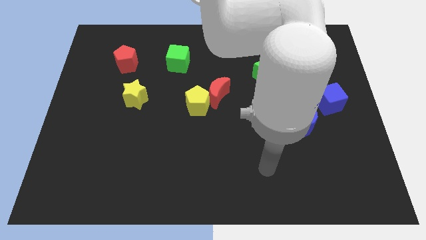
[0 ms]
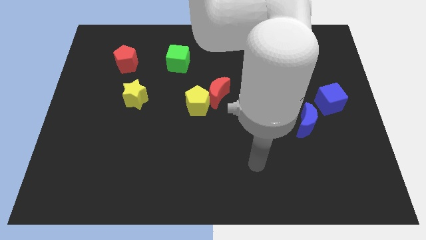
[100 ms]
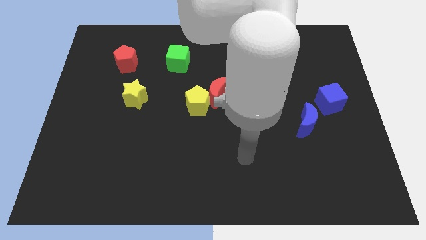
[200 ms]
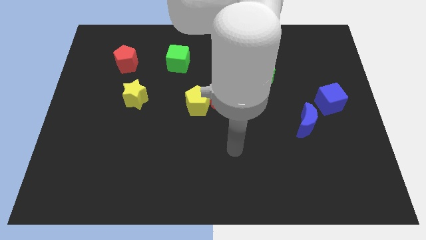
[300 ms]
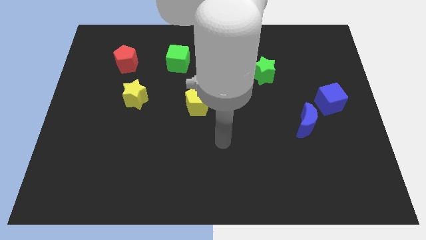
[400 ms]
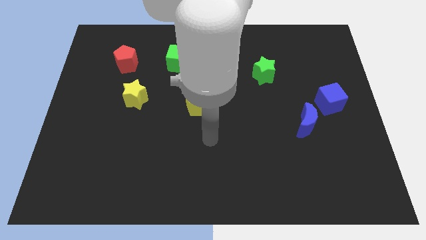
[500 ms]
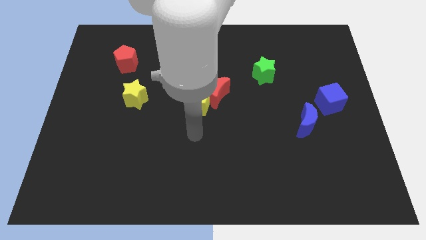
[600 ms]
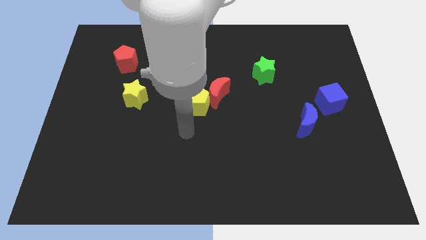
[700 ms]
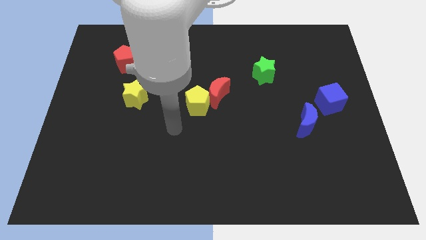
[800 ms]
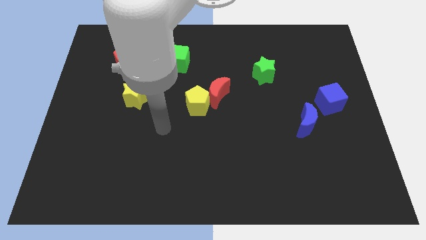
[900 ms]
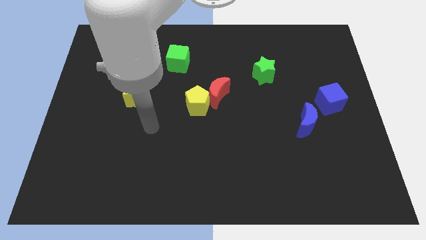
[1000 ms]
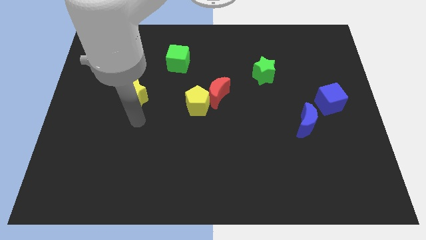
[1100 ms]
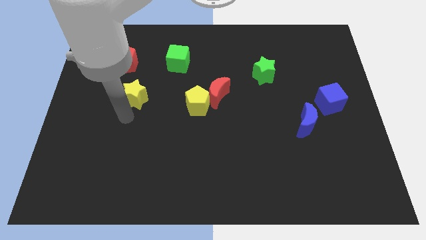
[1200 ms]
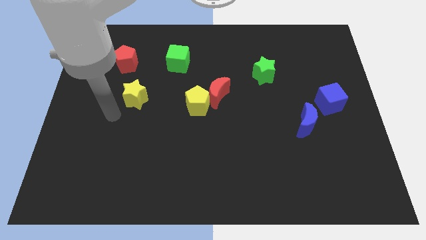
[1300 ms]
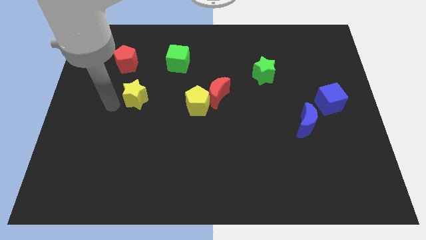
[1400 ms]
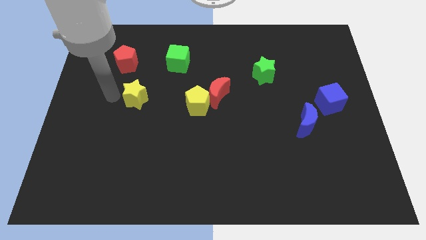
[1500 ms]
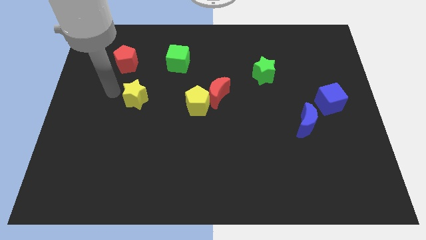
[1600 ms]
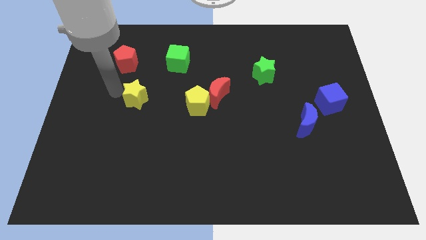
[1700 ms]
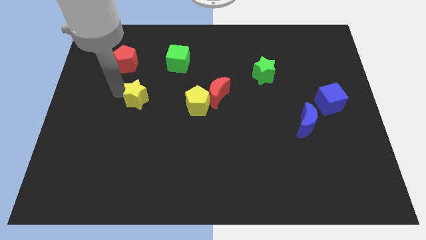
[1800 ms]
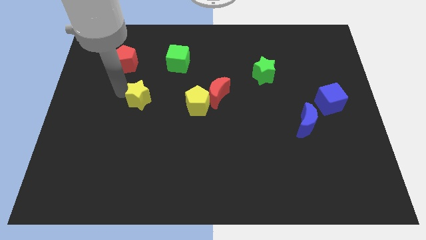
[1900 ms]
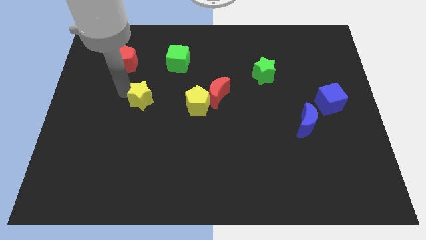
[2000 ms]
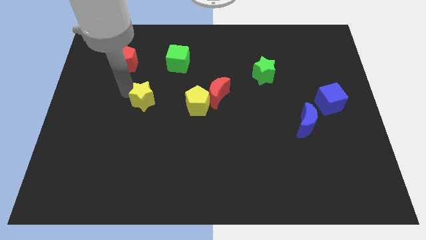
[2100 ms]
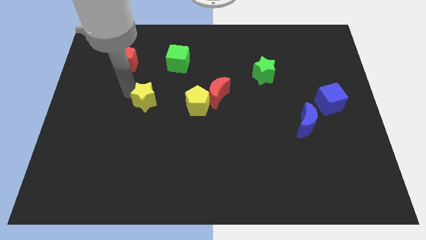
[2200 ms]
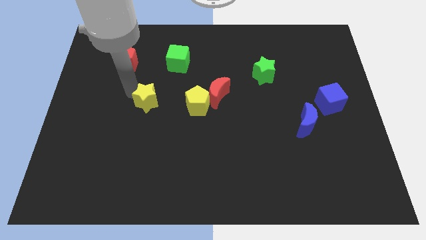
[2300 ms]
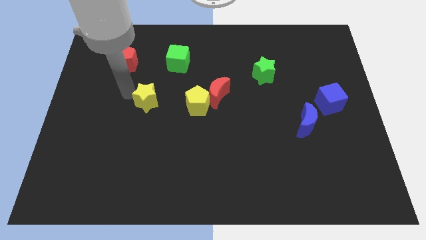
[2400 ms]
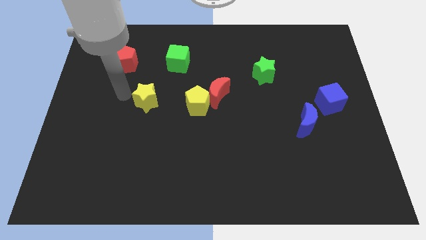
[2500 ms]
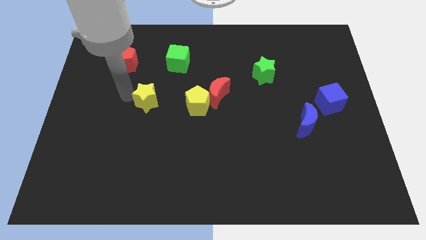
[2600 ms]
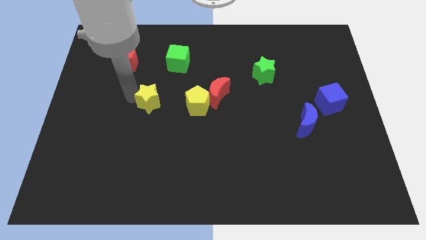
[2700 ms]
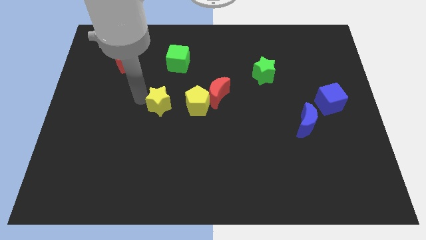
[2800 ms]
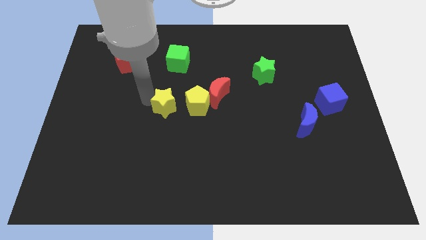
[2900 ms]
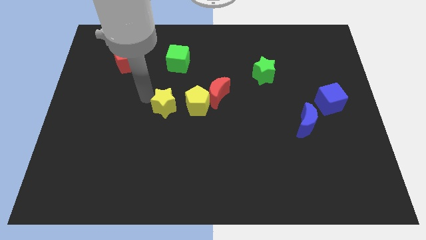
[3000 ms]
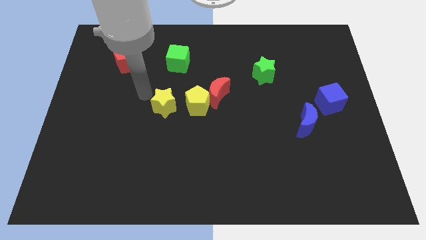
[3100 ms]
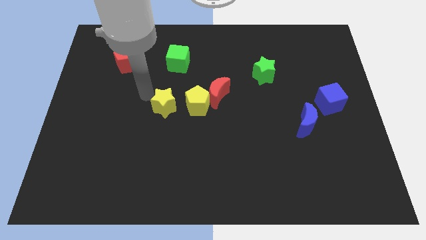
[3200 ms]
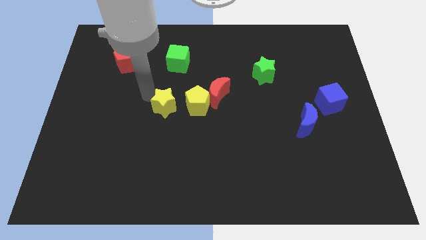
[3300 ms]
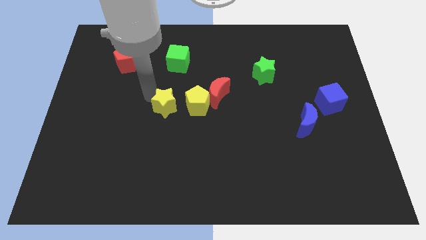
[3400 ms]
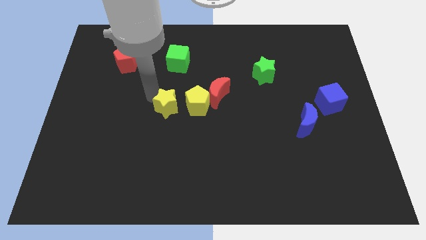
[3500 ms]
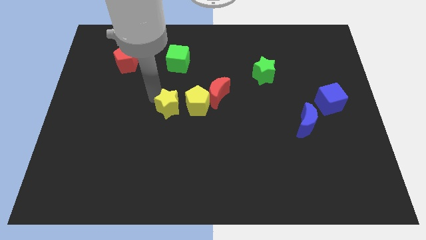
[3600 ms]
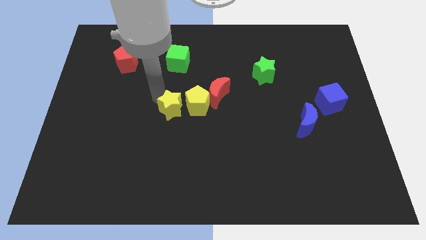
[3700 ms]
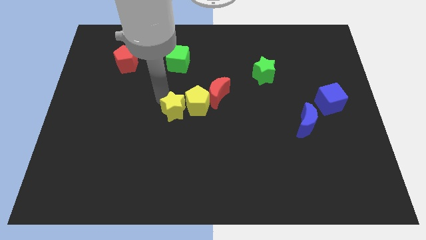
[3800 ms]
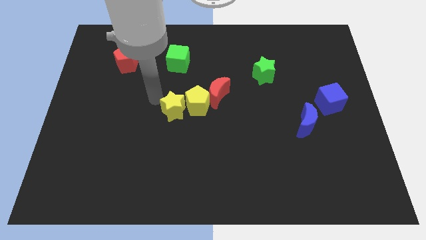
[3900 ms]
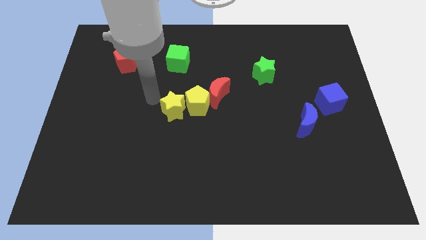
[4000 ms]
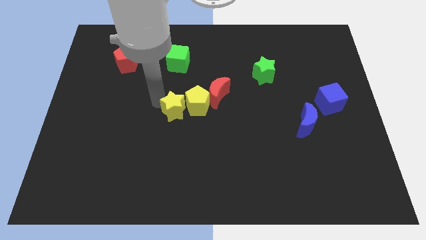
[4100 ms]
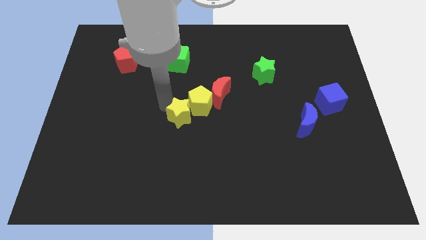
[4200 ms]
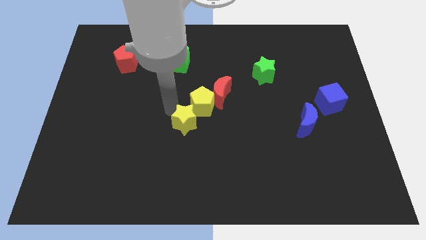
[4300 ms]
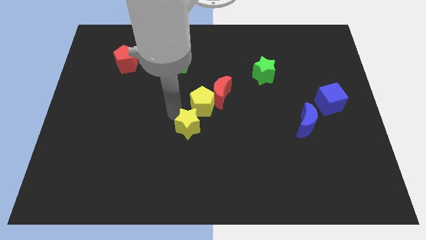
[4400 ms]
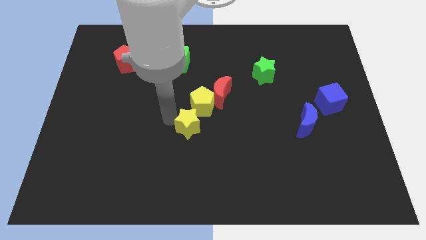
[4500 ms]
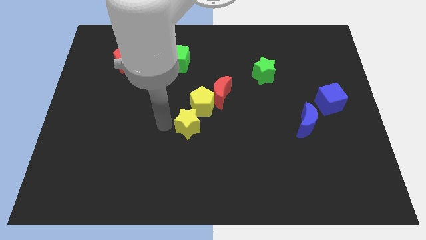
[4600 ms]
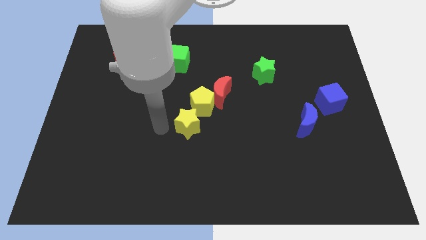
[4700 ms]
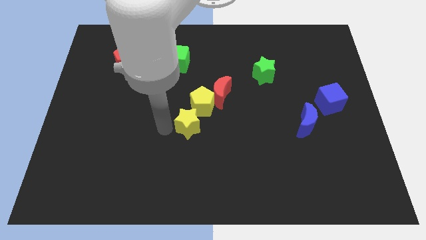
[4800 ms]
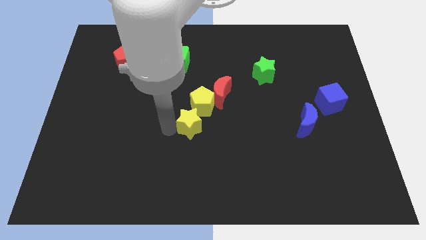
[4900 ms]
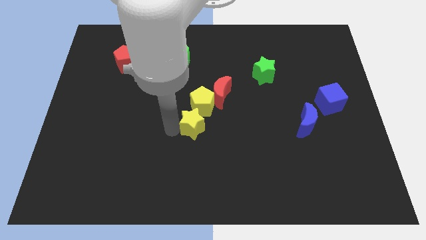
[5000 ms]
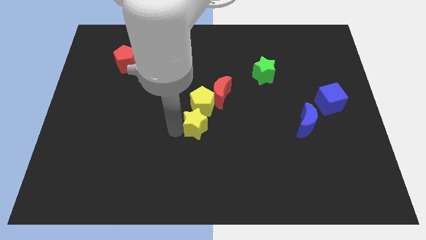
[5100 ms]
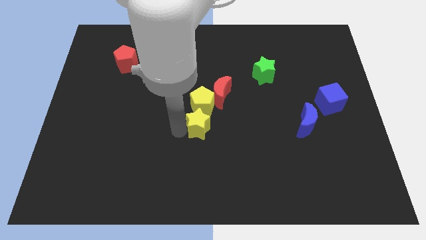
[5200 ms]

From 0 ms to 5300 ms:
move the yellow star to the bottom right of the yellow pentagon

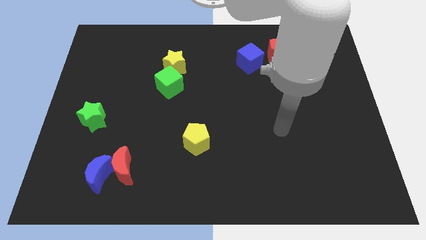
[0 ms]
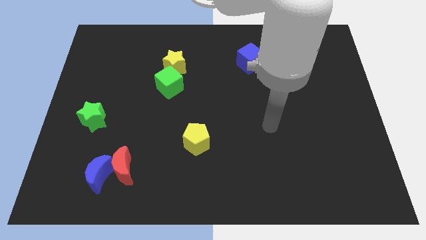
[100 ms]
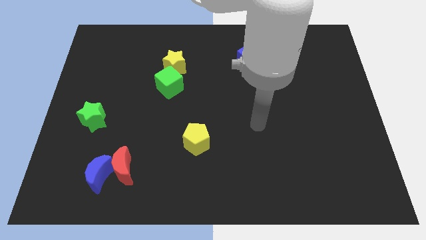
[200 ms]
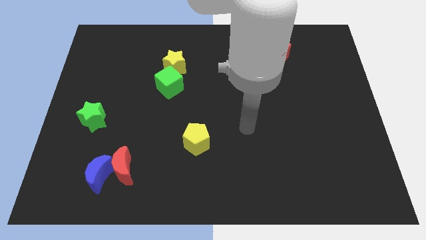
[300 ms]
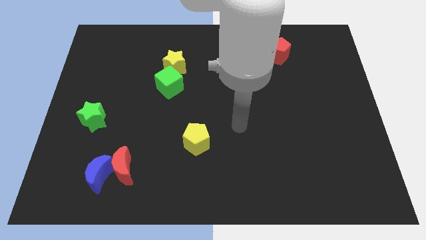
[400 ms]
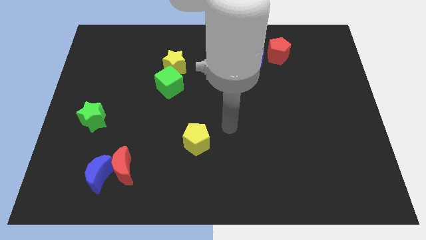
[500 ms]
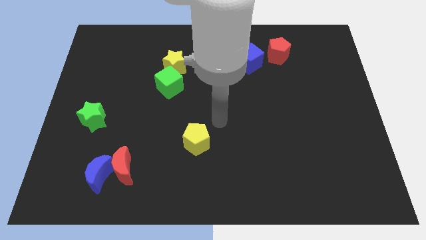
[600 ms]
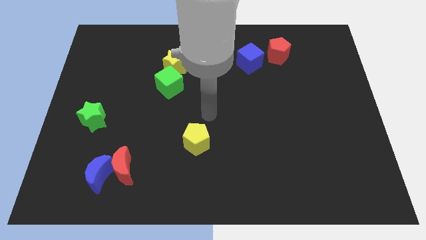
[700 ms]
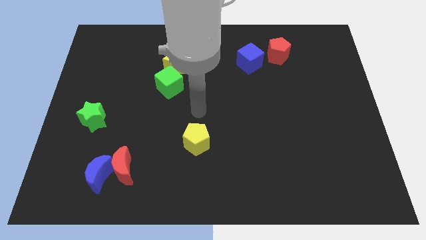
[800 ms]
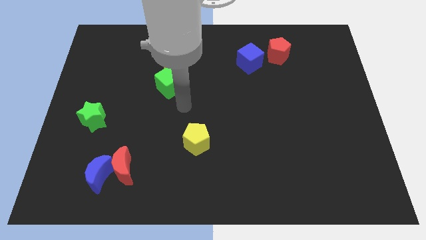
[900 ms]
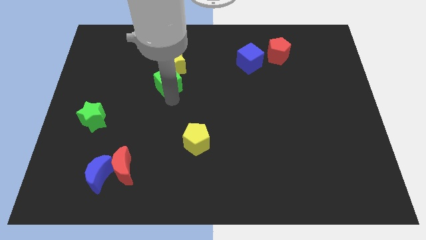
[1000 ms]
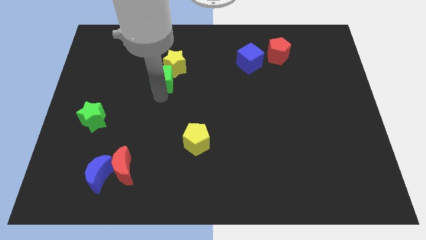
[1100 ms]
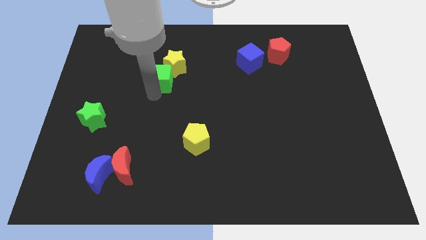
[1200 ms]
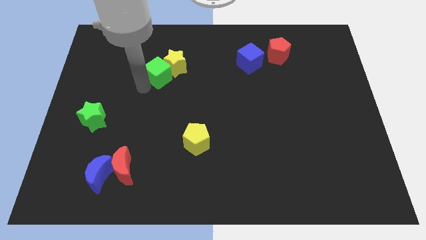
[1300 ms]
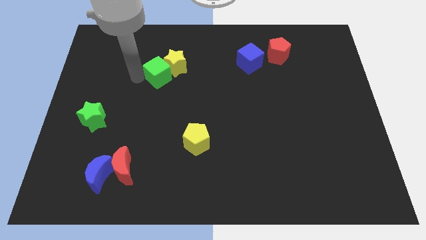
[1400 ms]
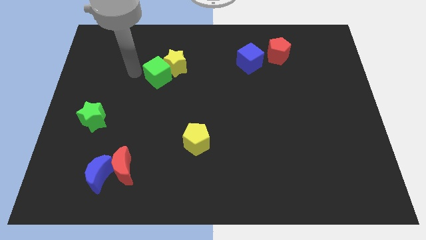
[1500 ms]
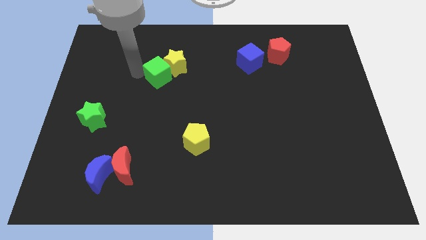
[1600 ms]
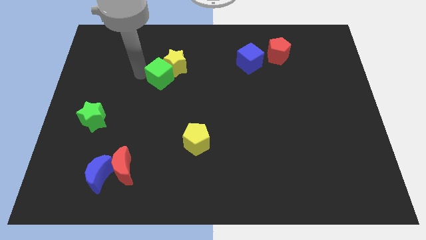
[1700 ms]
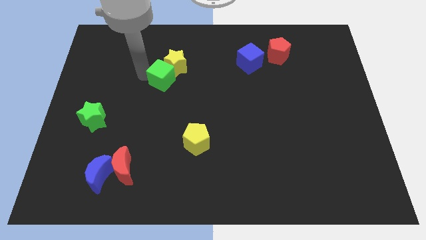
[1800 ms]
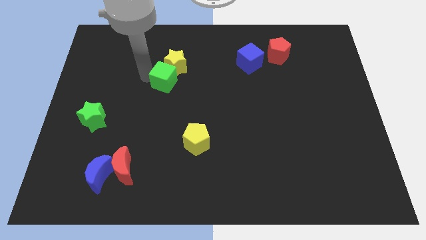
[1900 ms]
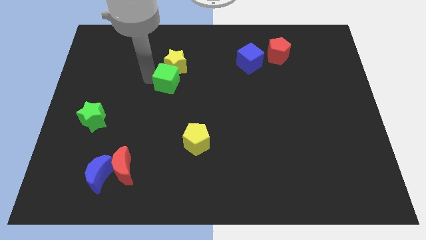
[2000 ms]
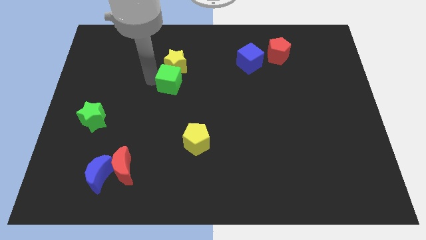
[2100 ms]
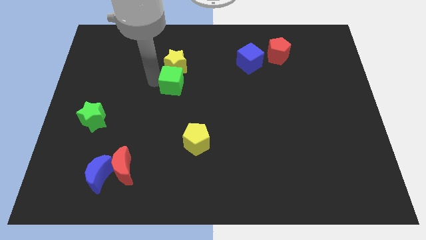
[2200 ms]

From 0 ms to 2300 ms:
slide the green cube to the bottom right side of the yellow star
